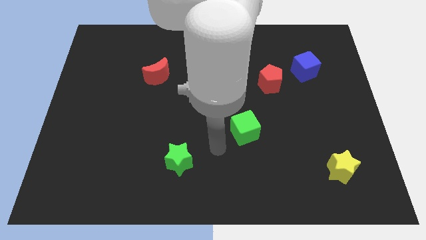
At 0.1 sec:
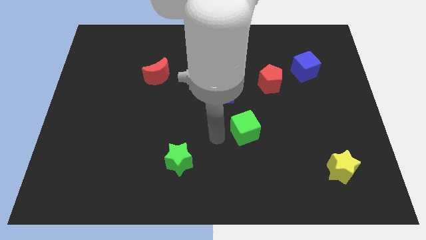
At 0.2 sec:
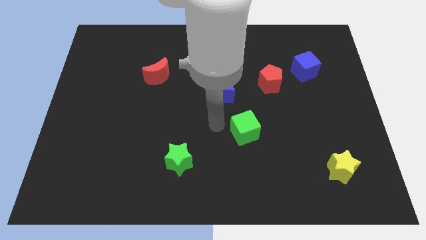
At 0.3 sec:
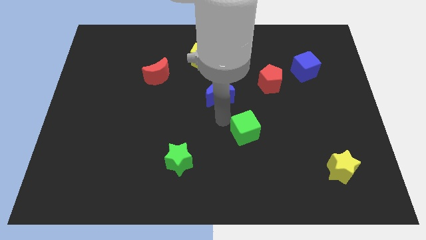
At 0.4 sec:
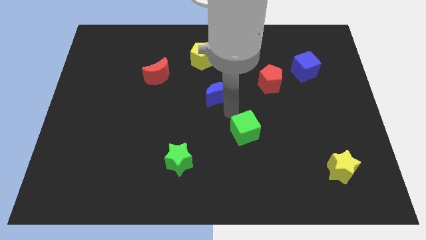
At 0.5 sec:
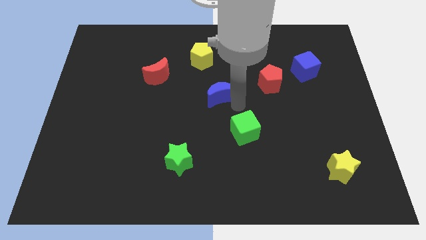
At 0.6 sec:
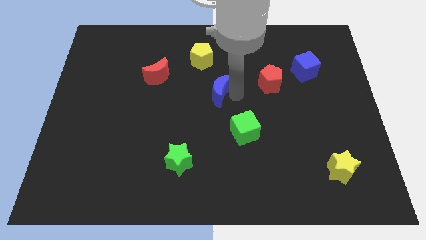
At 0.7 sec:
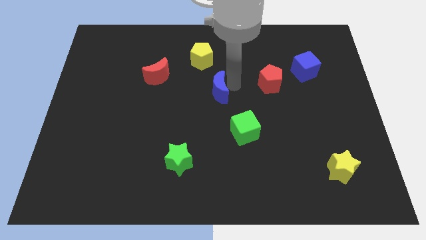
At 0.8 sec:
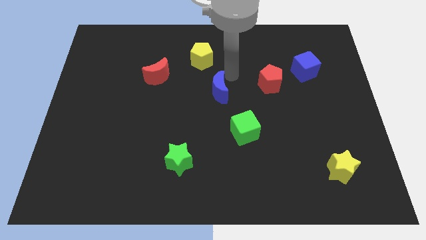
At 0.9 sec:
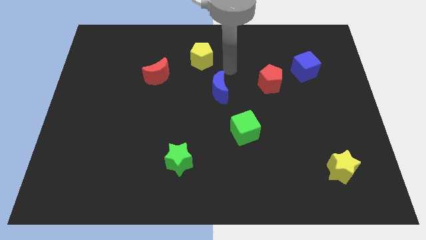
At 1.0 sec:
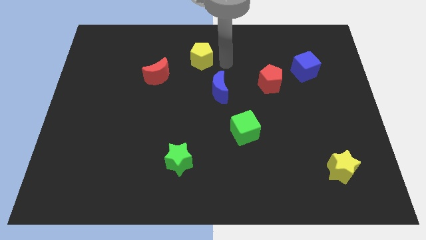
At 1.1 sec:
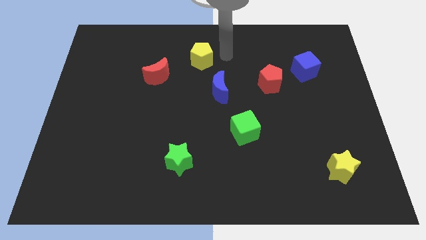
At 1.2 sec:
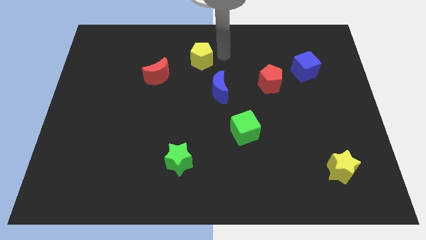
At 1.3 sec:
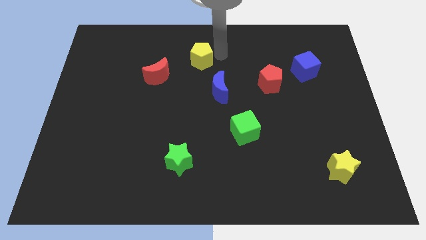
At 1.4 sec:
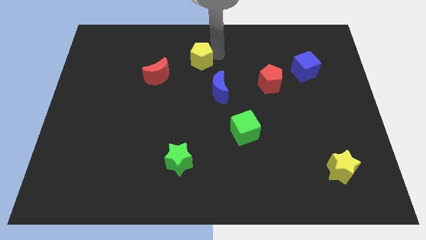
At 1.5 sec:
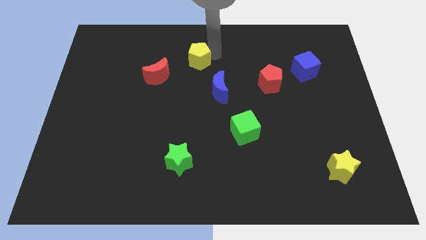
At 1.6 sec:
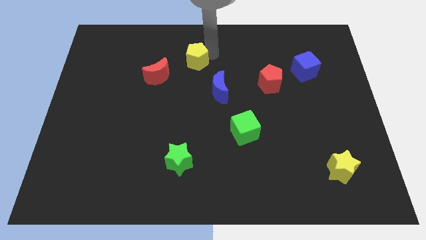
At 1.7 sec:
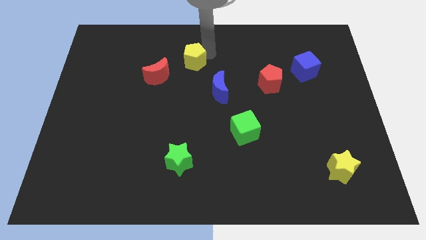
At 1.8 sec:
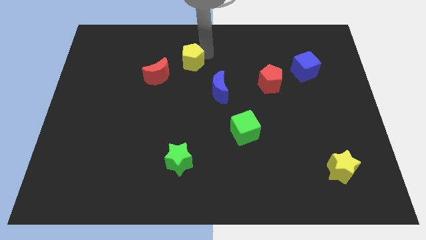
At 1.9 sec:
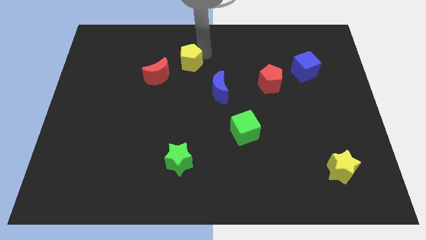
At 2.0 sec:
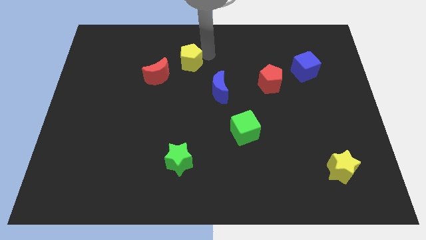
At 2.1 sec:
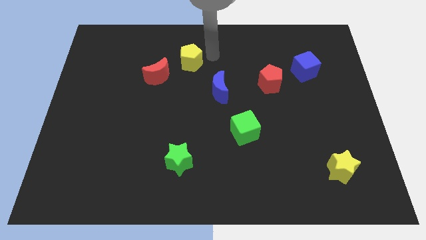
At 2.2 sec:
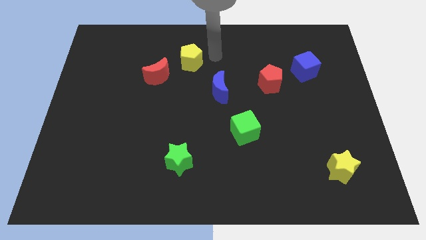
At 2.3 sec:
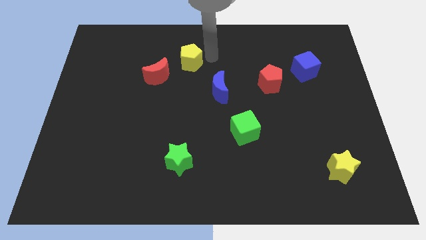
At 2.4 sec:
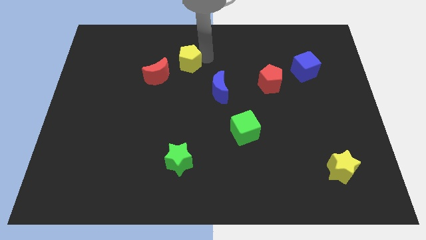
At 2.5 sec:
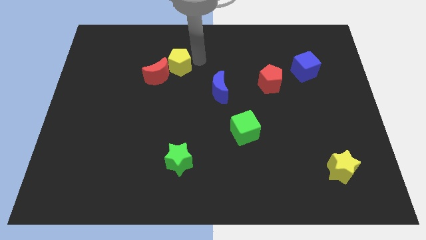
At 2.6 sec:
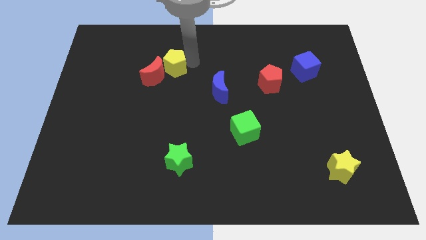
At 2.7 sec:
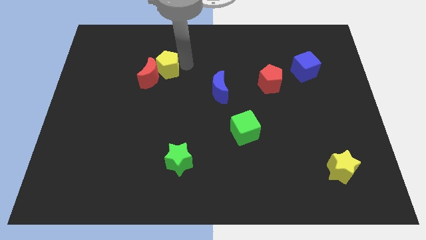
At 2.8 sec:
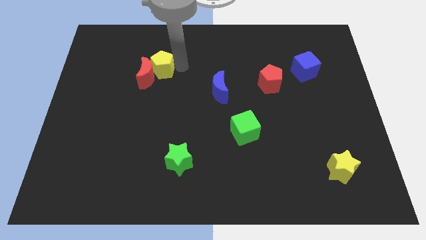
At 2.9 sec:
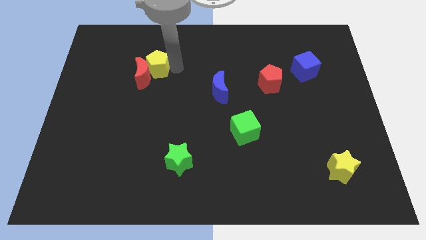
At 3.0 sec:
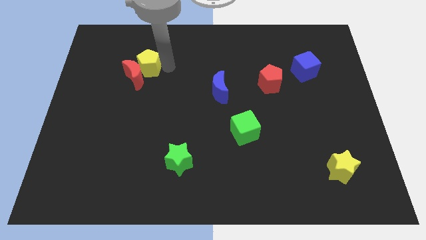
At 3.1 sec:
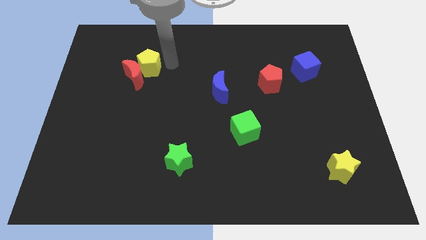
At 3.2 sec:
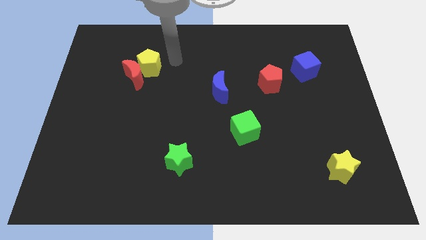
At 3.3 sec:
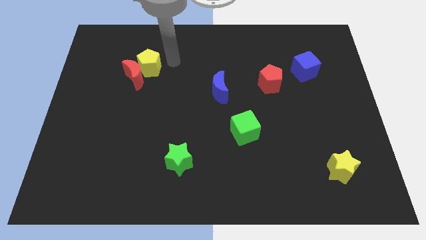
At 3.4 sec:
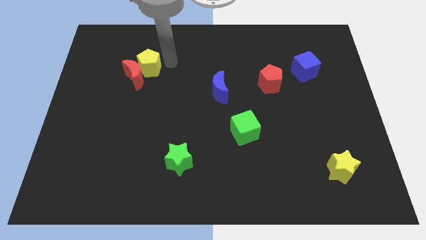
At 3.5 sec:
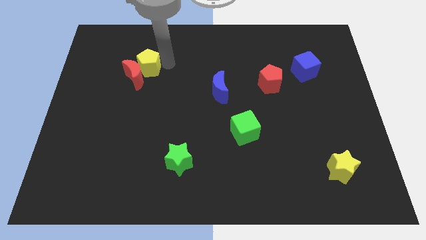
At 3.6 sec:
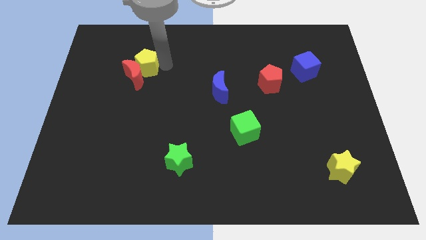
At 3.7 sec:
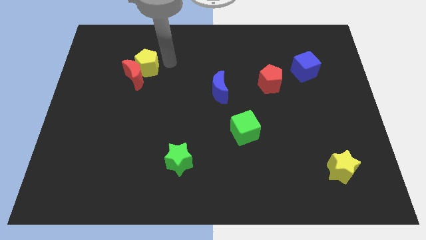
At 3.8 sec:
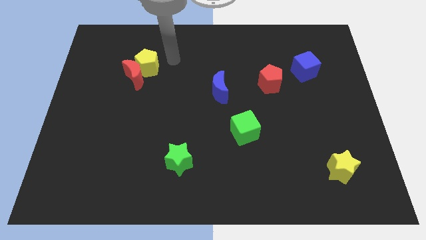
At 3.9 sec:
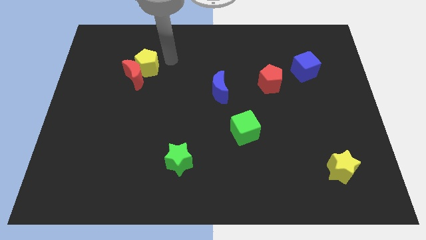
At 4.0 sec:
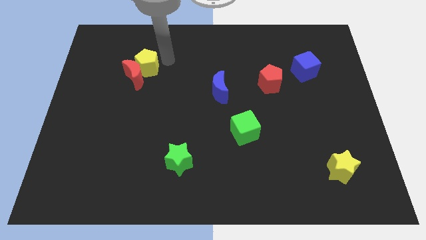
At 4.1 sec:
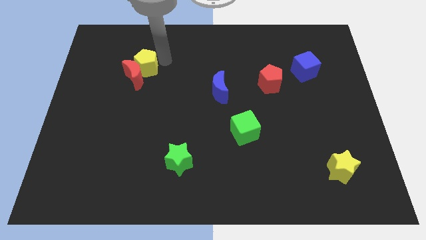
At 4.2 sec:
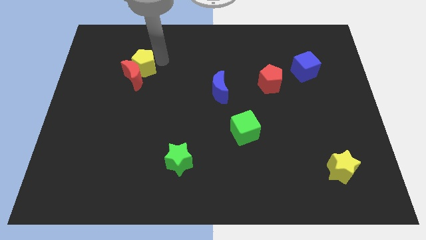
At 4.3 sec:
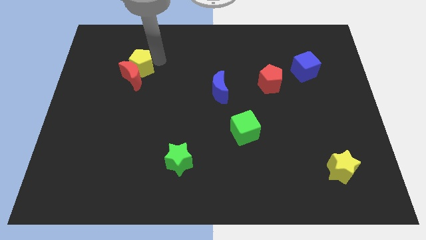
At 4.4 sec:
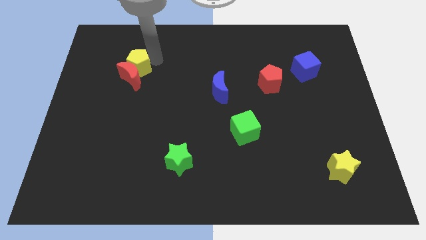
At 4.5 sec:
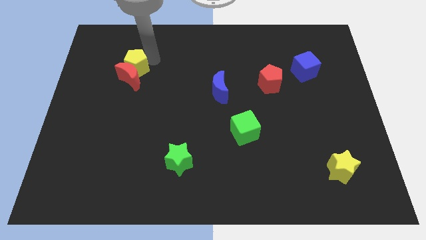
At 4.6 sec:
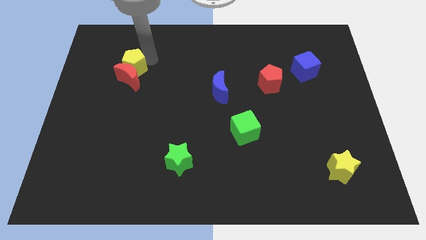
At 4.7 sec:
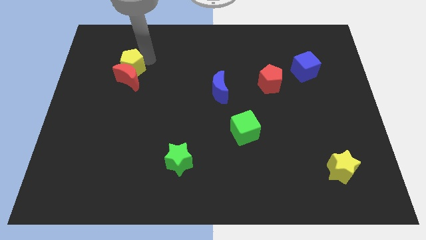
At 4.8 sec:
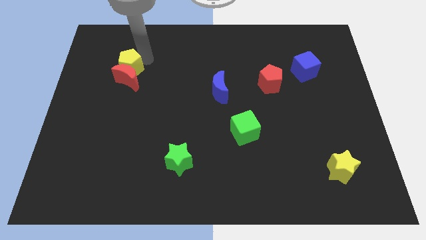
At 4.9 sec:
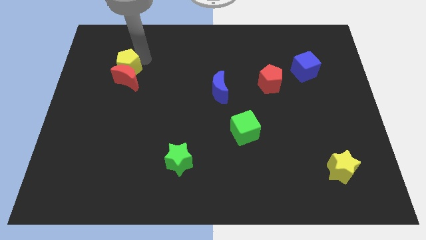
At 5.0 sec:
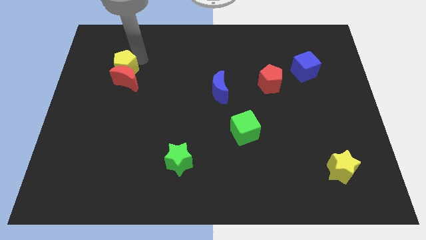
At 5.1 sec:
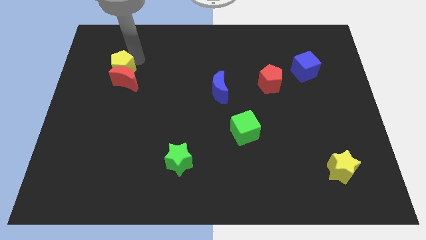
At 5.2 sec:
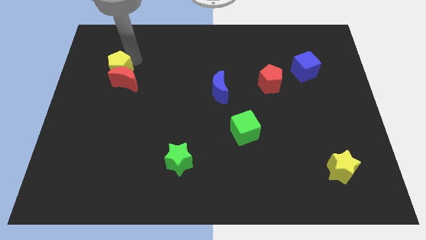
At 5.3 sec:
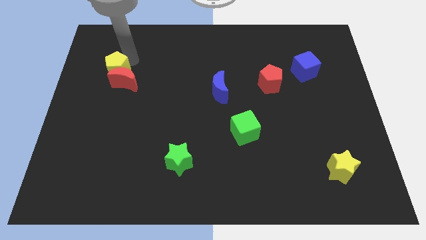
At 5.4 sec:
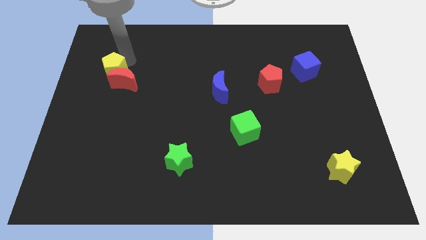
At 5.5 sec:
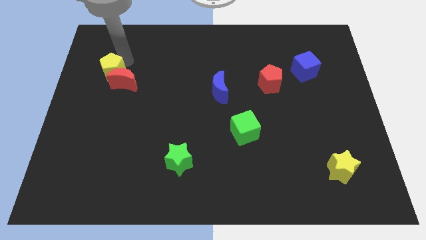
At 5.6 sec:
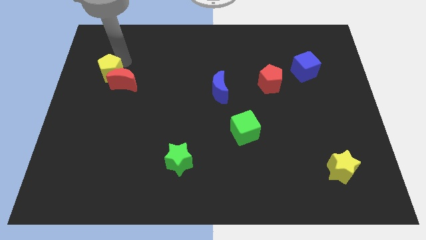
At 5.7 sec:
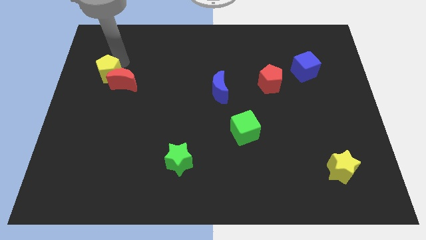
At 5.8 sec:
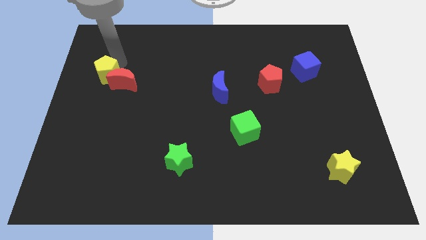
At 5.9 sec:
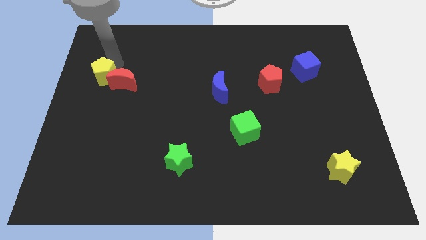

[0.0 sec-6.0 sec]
put the yellow pentagon to the left side of the board
